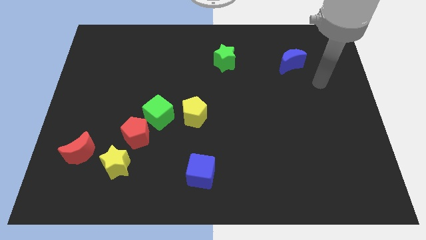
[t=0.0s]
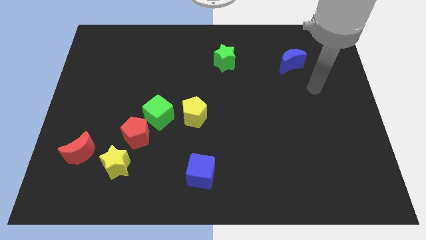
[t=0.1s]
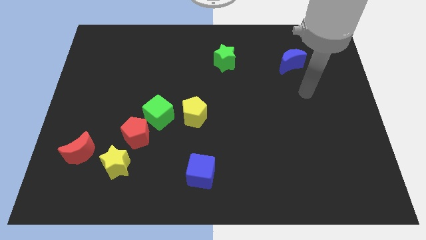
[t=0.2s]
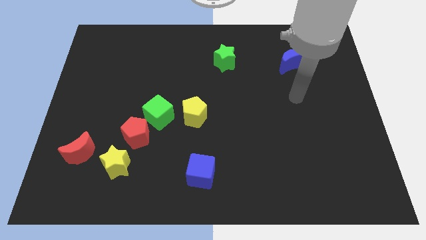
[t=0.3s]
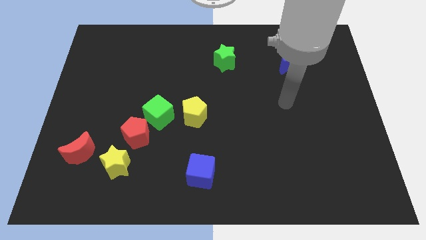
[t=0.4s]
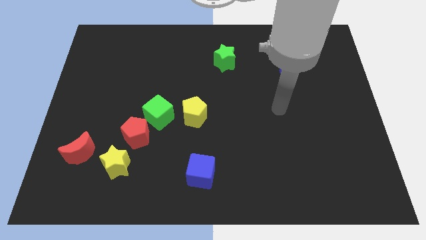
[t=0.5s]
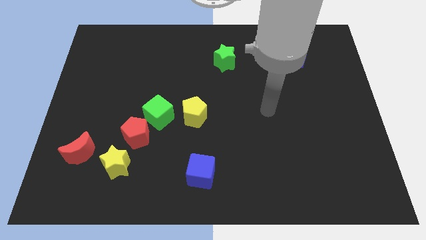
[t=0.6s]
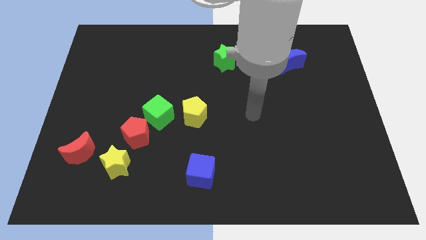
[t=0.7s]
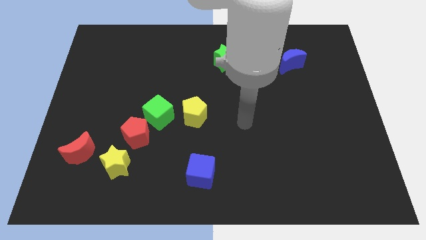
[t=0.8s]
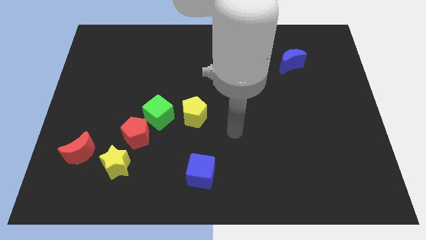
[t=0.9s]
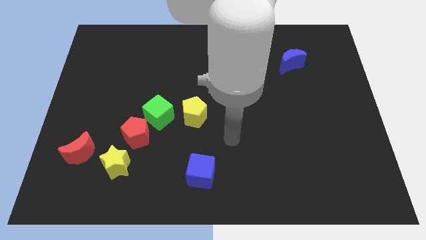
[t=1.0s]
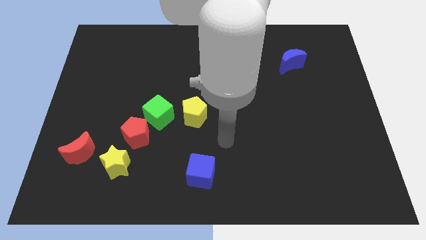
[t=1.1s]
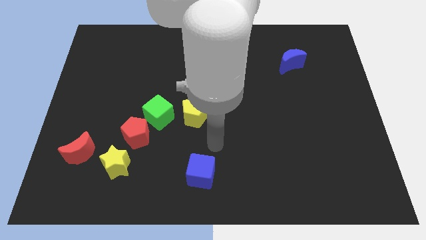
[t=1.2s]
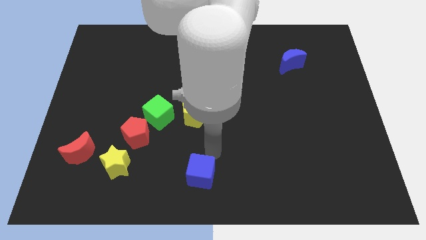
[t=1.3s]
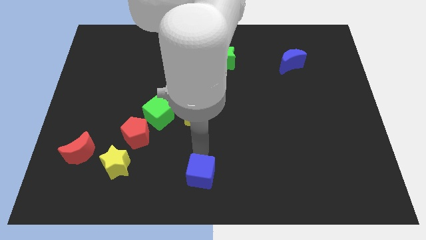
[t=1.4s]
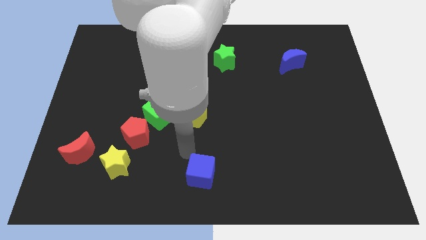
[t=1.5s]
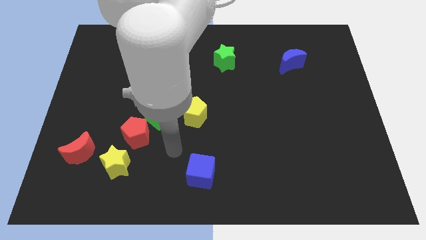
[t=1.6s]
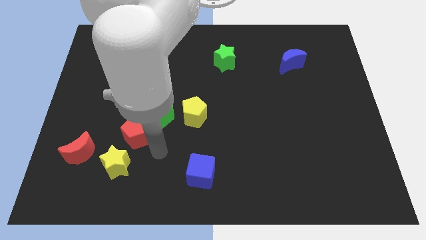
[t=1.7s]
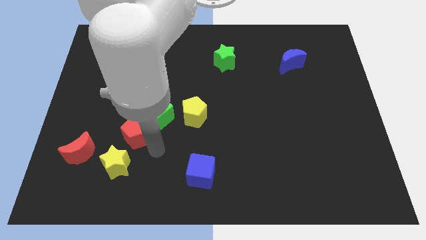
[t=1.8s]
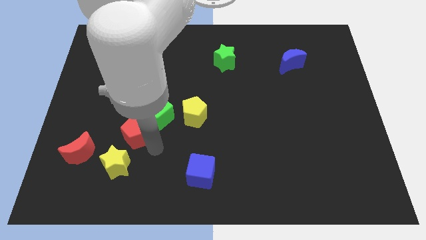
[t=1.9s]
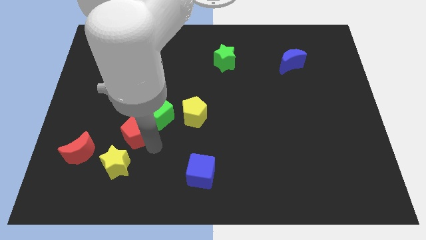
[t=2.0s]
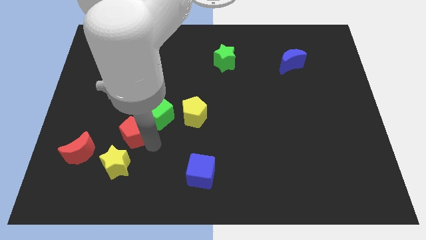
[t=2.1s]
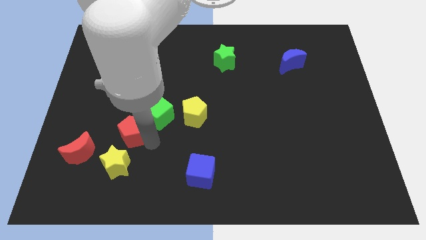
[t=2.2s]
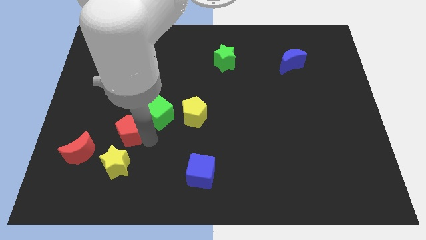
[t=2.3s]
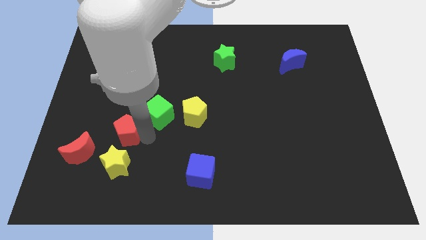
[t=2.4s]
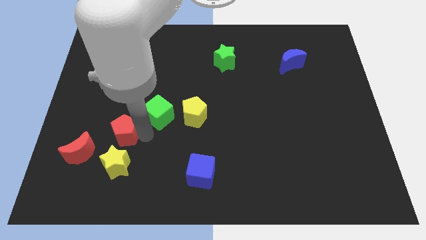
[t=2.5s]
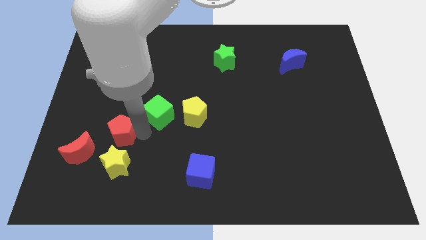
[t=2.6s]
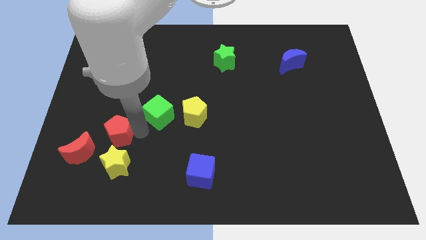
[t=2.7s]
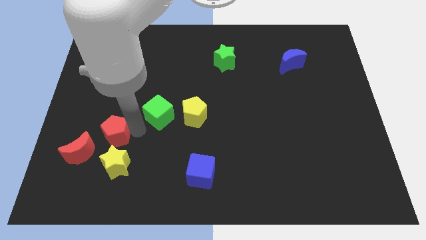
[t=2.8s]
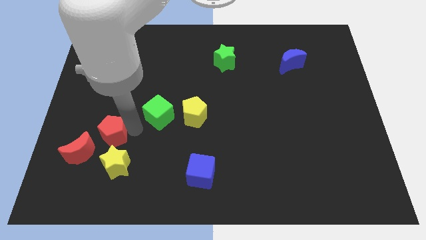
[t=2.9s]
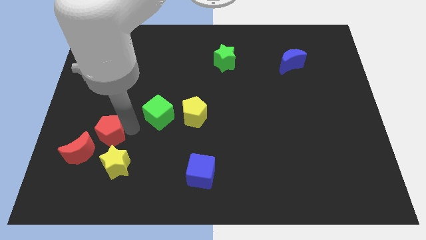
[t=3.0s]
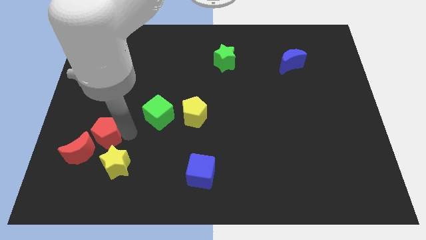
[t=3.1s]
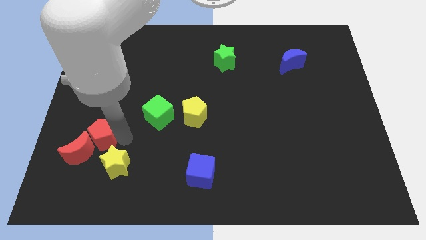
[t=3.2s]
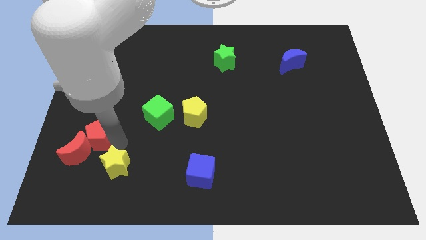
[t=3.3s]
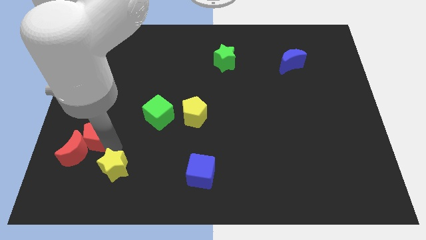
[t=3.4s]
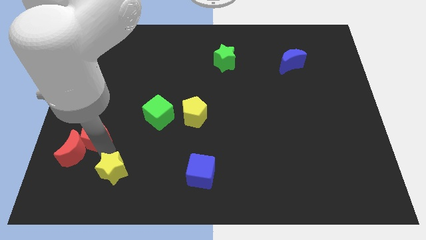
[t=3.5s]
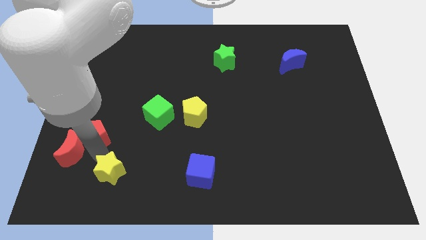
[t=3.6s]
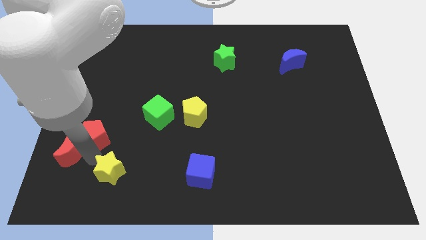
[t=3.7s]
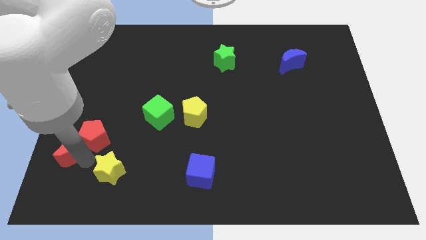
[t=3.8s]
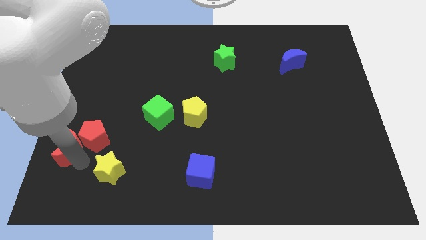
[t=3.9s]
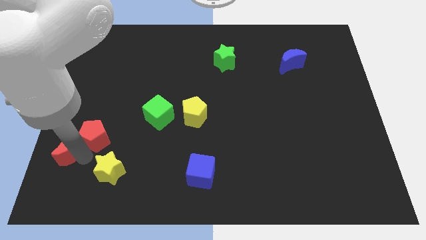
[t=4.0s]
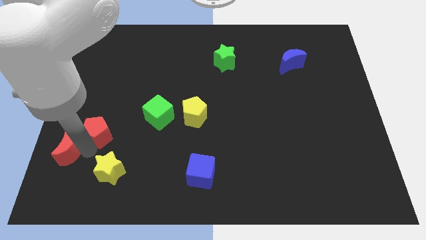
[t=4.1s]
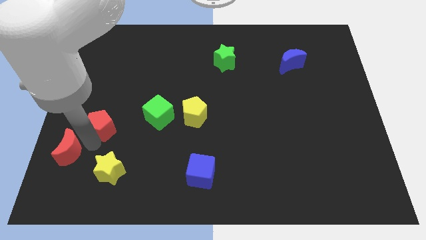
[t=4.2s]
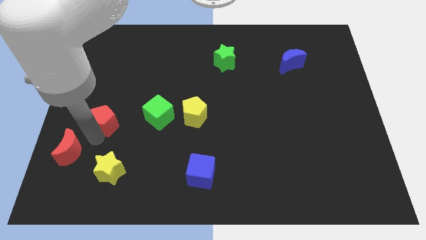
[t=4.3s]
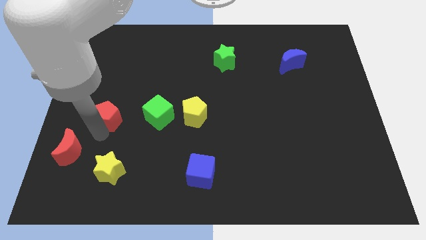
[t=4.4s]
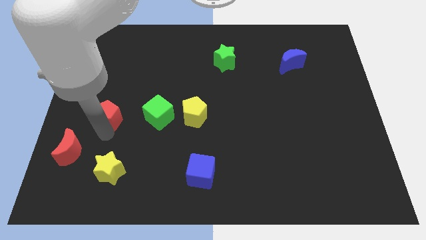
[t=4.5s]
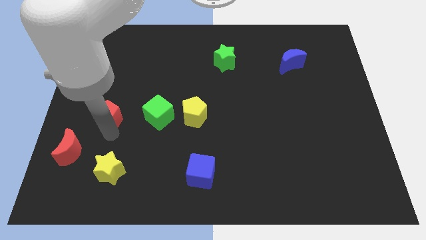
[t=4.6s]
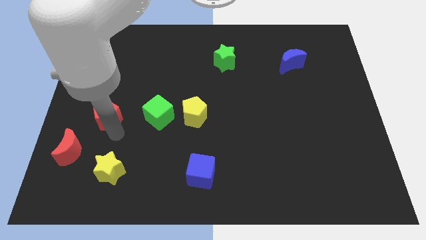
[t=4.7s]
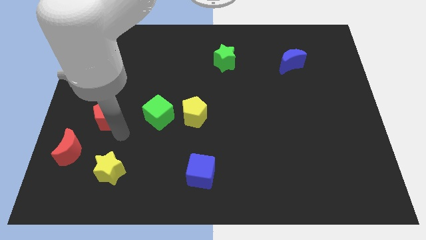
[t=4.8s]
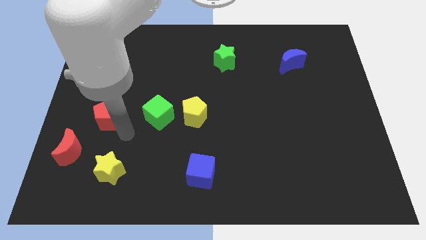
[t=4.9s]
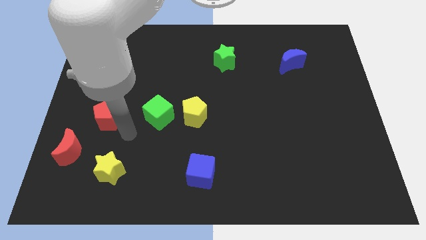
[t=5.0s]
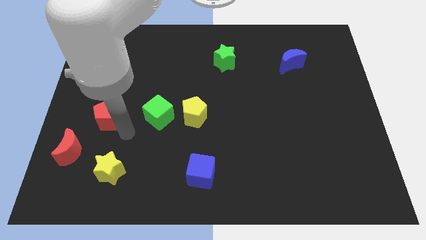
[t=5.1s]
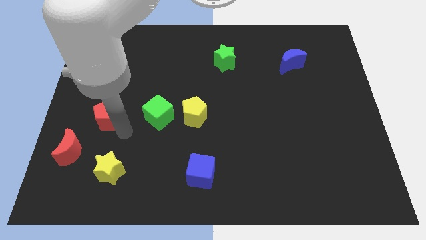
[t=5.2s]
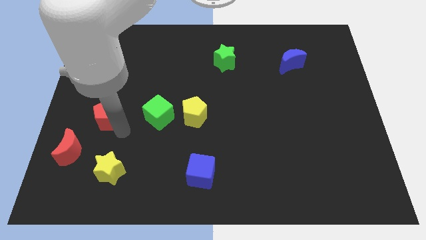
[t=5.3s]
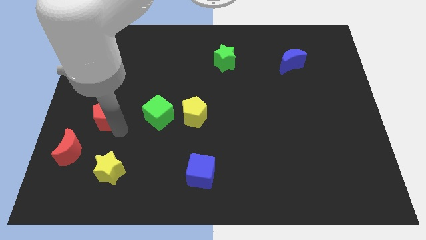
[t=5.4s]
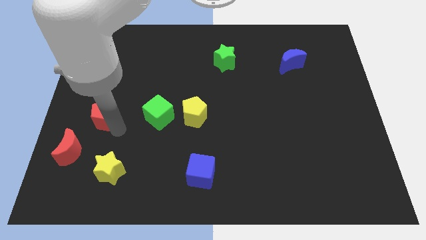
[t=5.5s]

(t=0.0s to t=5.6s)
separate the red pentagon from the green cube and yellow star

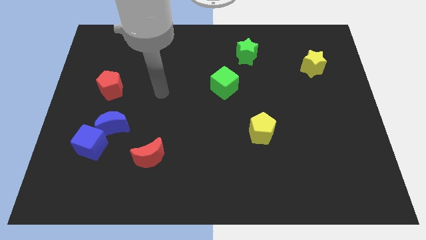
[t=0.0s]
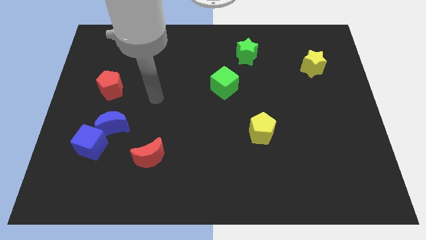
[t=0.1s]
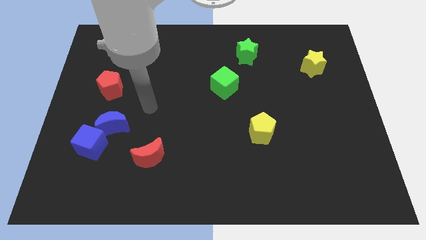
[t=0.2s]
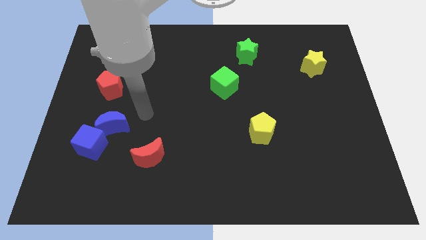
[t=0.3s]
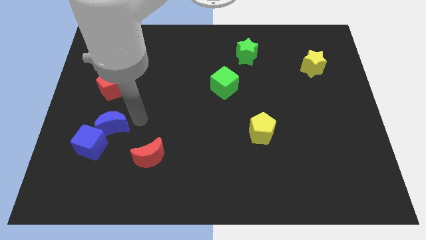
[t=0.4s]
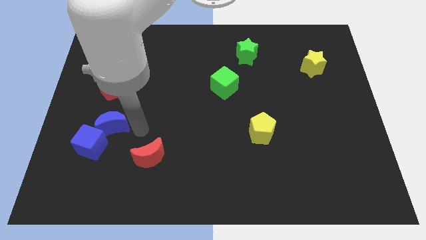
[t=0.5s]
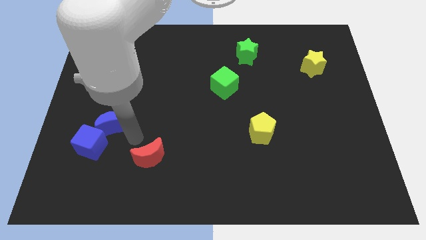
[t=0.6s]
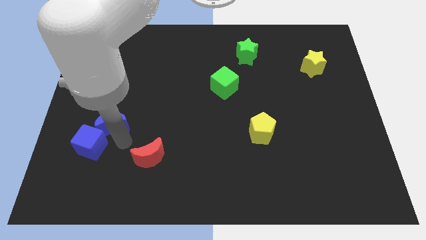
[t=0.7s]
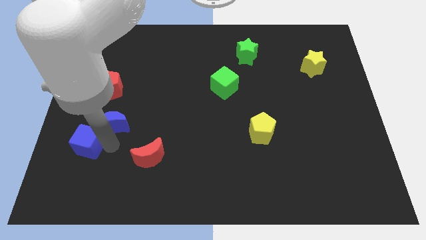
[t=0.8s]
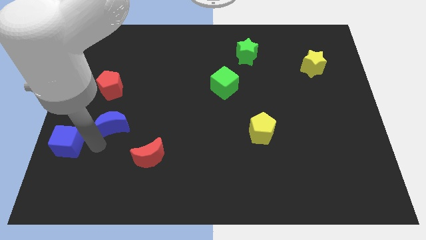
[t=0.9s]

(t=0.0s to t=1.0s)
pull the blue moon apart from the blue cube

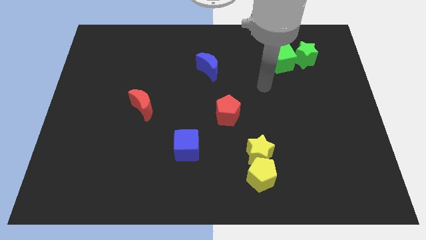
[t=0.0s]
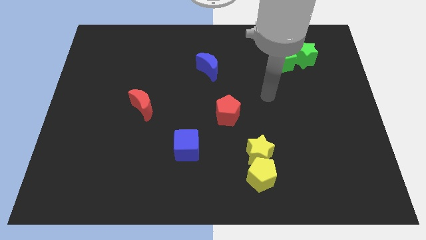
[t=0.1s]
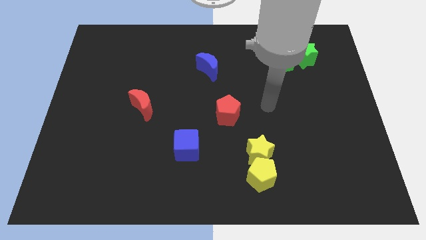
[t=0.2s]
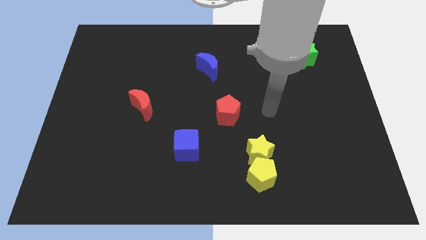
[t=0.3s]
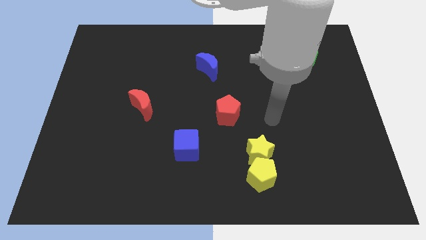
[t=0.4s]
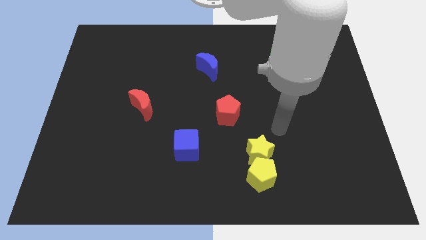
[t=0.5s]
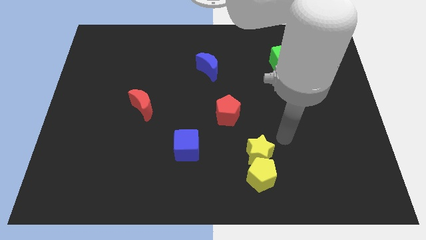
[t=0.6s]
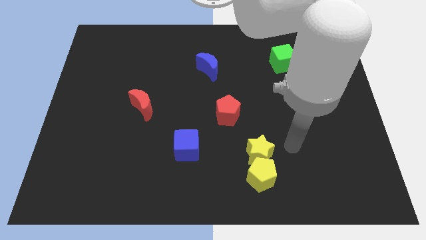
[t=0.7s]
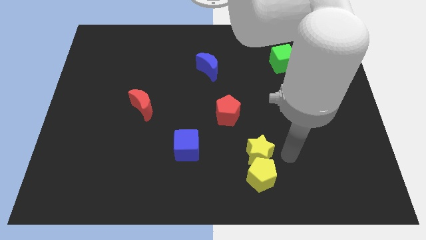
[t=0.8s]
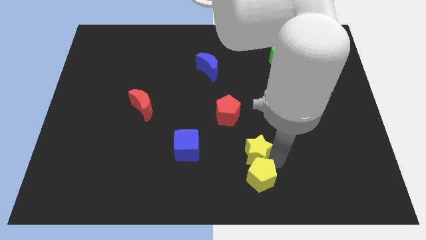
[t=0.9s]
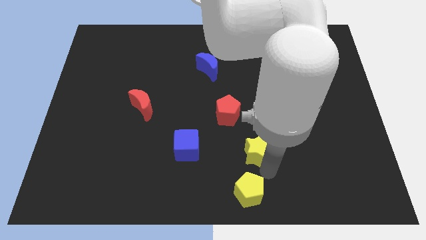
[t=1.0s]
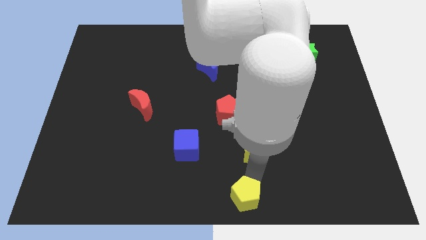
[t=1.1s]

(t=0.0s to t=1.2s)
pull the yellow star apart from the yellow pentagon

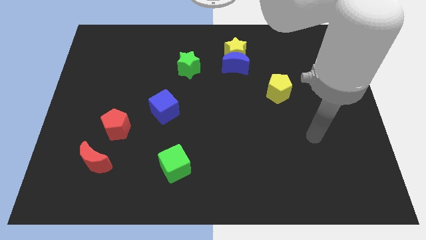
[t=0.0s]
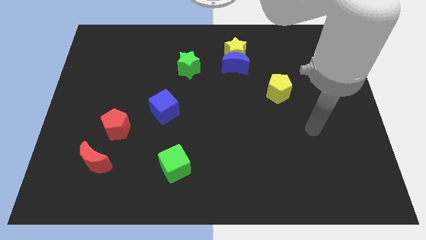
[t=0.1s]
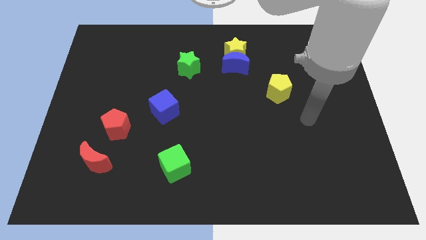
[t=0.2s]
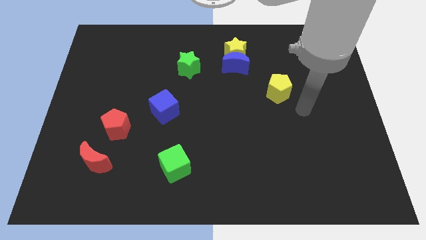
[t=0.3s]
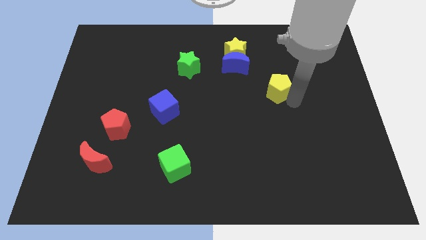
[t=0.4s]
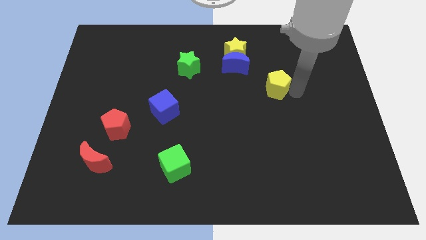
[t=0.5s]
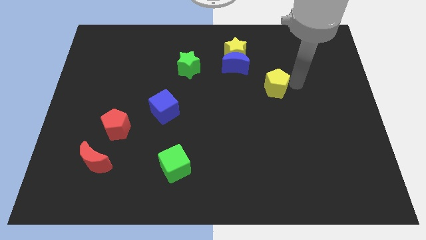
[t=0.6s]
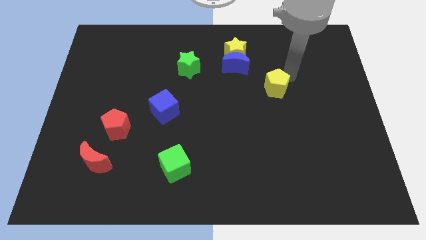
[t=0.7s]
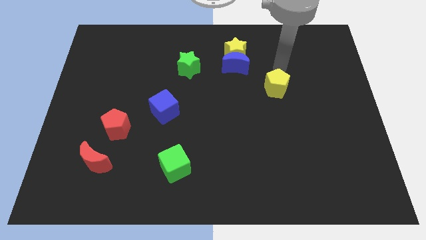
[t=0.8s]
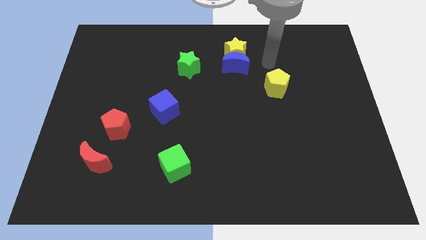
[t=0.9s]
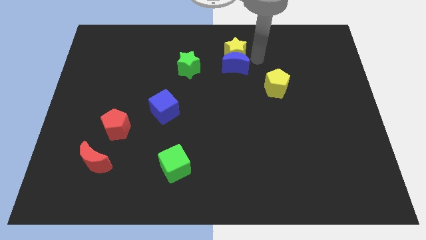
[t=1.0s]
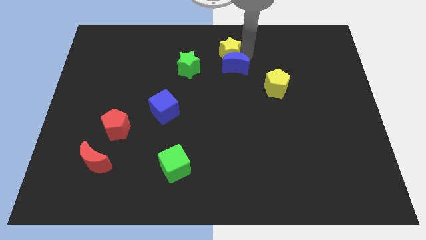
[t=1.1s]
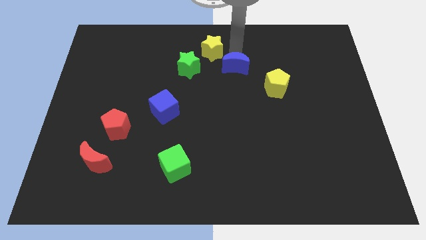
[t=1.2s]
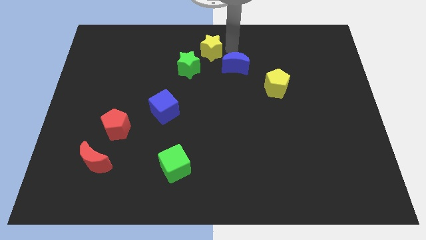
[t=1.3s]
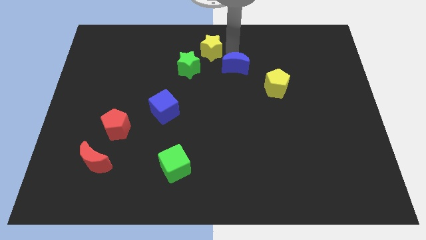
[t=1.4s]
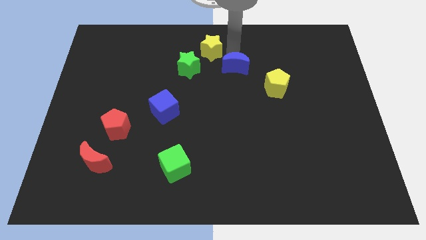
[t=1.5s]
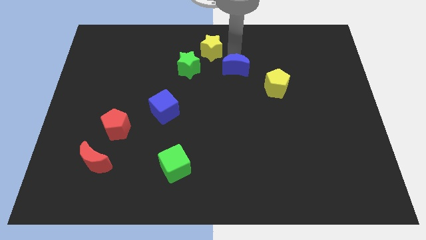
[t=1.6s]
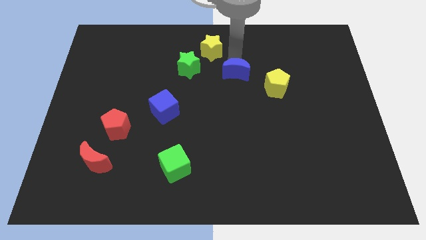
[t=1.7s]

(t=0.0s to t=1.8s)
pull the blue moon apart from the yellow star
